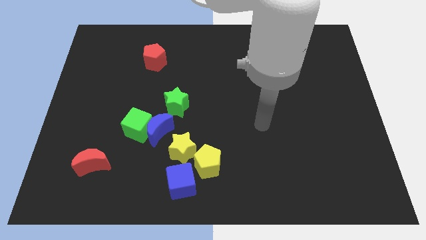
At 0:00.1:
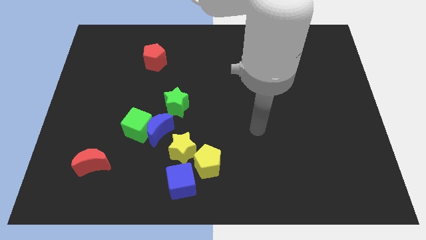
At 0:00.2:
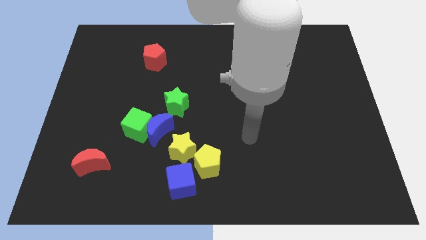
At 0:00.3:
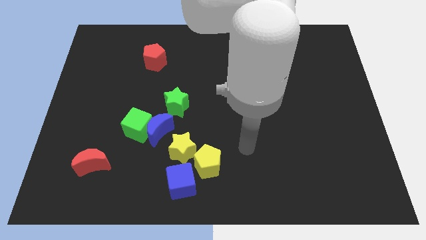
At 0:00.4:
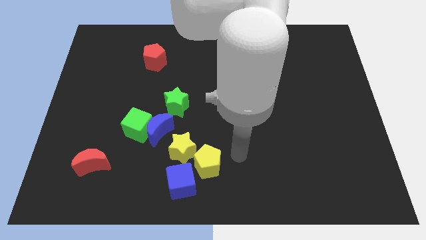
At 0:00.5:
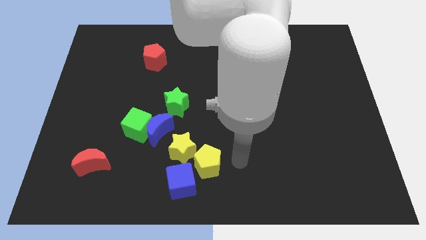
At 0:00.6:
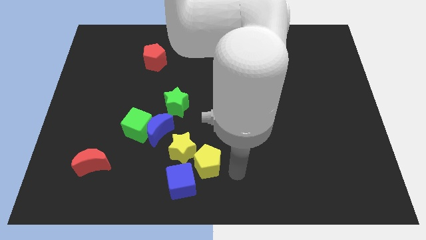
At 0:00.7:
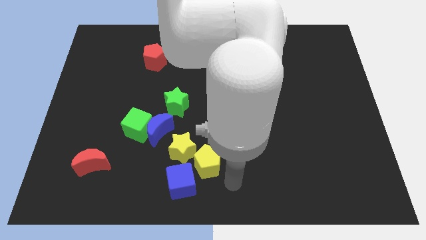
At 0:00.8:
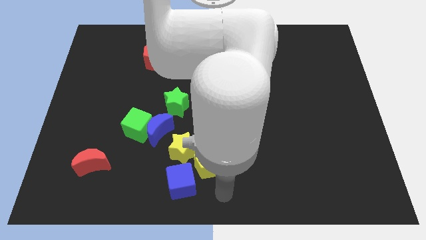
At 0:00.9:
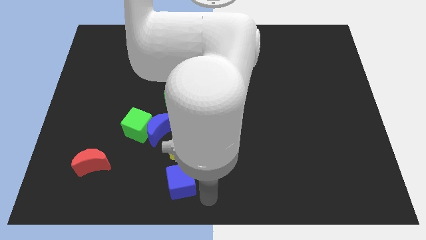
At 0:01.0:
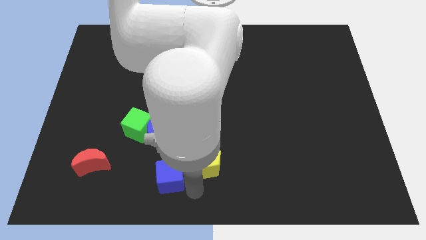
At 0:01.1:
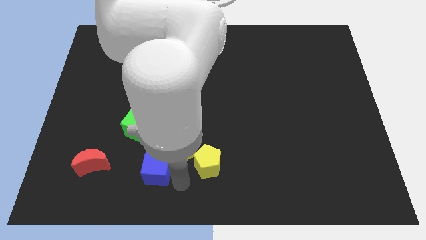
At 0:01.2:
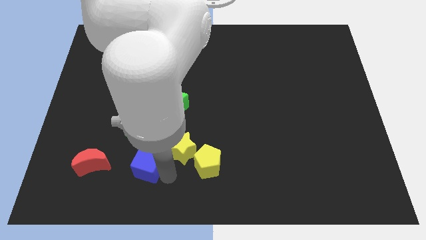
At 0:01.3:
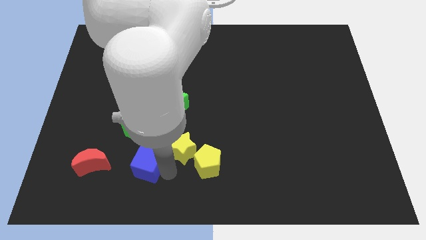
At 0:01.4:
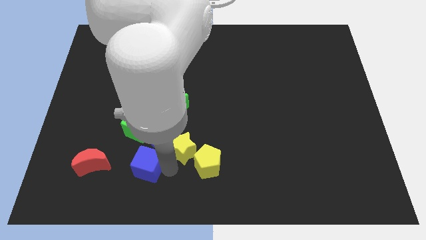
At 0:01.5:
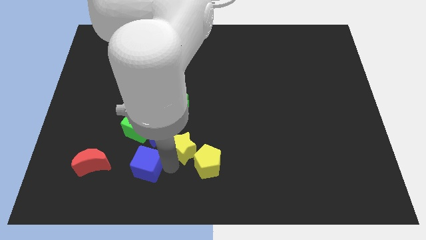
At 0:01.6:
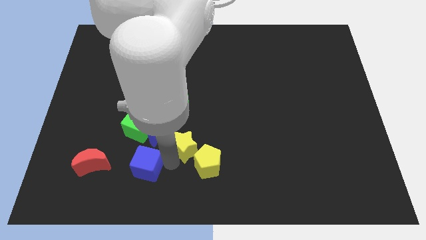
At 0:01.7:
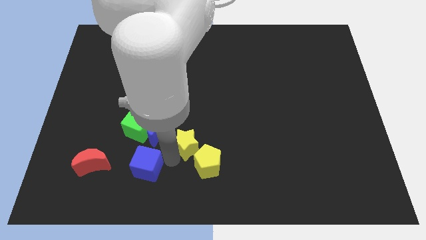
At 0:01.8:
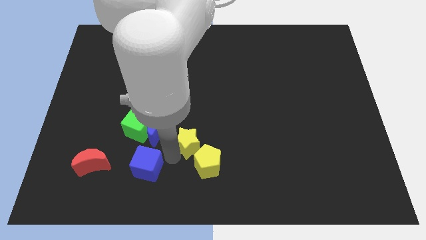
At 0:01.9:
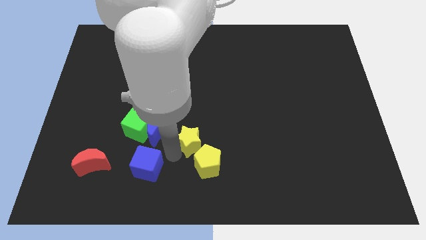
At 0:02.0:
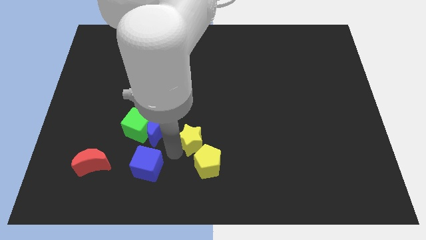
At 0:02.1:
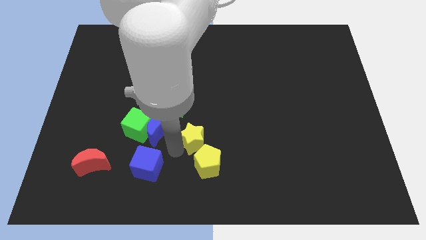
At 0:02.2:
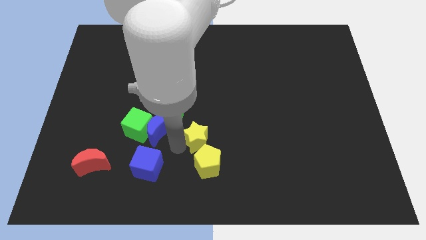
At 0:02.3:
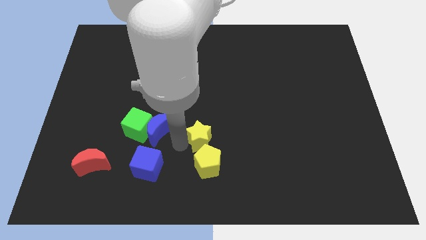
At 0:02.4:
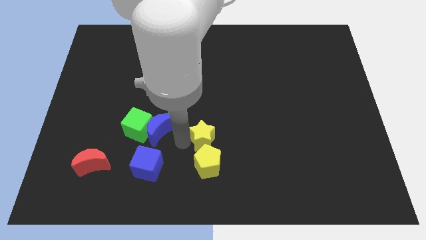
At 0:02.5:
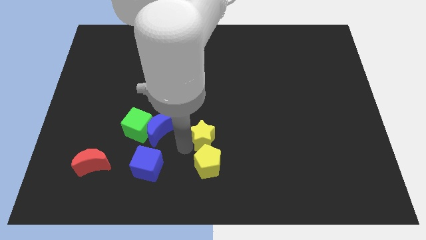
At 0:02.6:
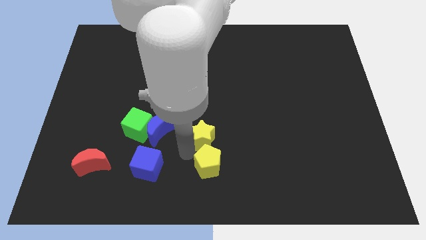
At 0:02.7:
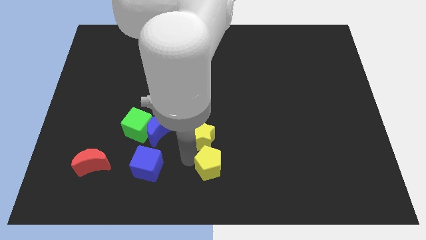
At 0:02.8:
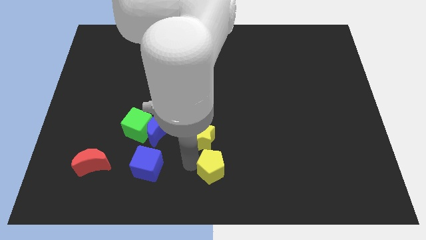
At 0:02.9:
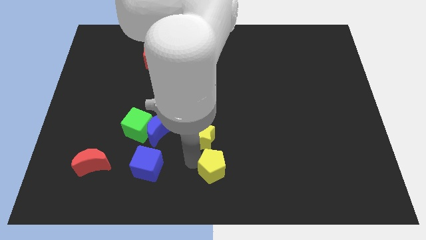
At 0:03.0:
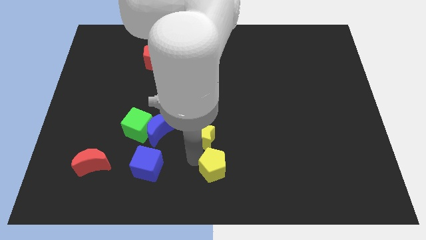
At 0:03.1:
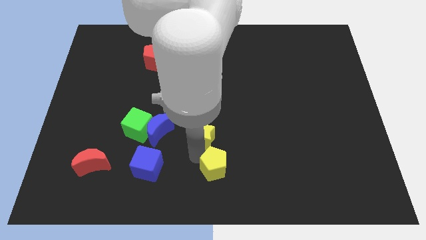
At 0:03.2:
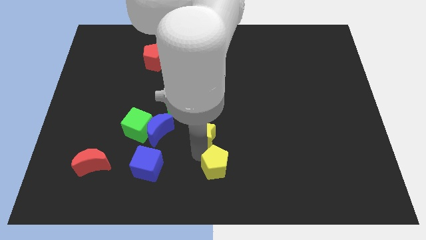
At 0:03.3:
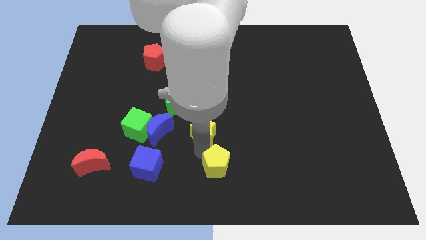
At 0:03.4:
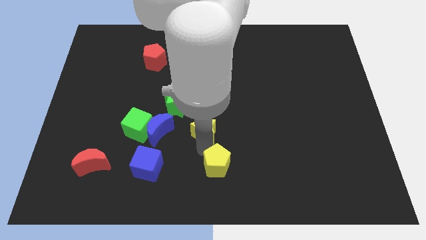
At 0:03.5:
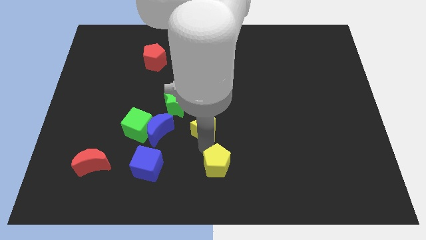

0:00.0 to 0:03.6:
slide the yellow star up and to the right diagonally a little

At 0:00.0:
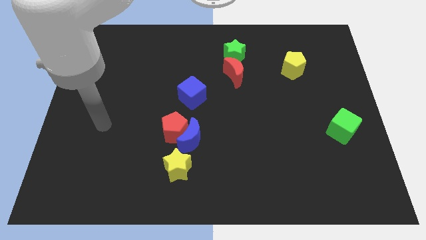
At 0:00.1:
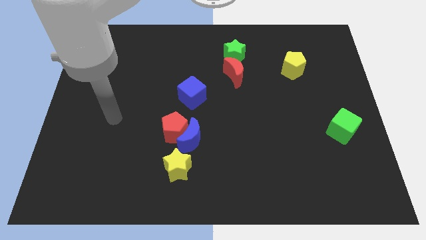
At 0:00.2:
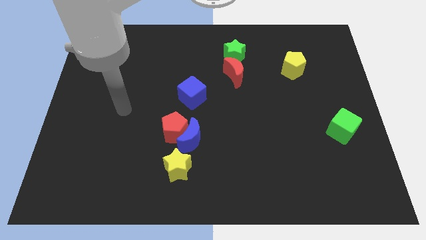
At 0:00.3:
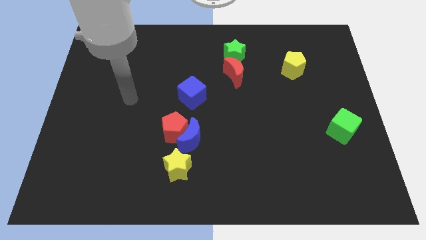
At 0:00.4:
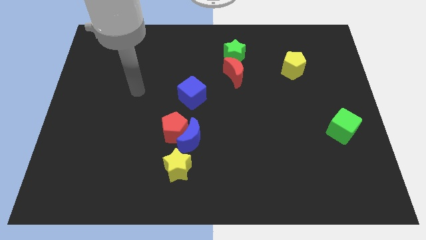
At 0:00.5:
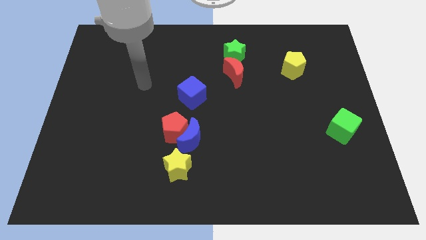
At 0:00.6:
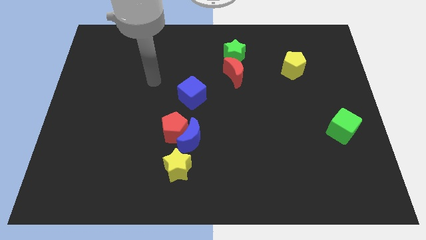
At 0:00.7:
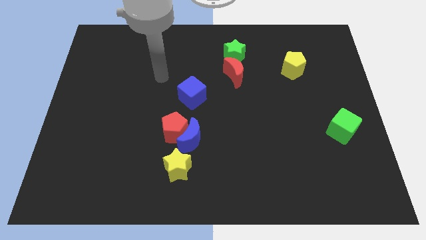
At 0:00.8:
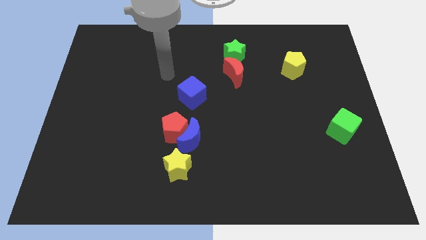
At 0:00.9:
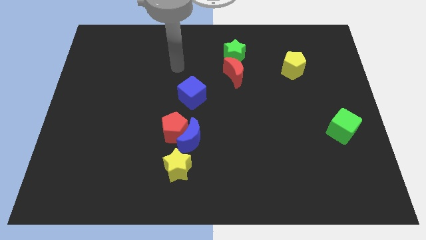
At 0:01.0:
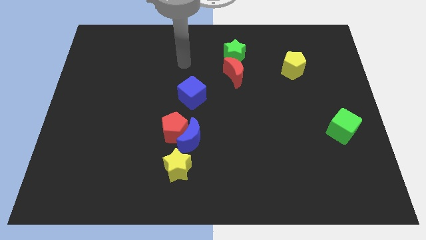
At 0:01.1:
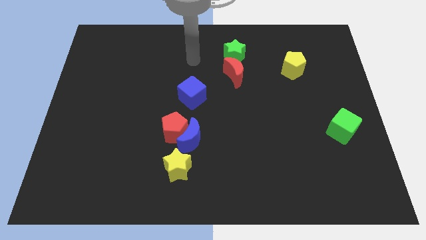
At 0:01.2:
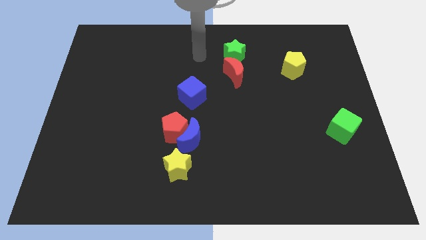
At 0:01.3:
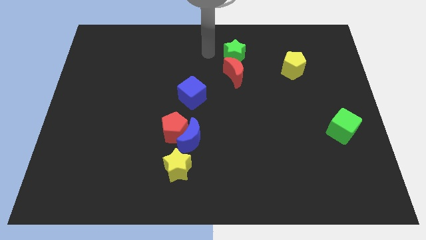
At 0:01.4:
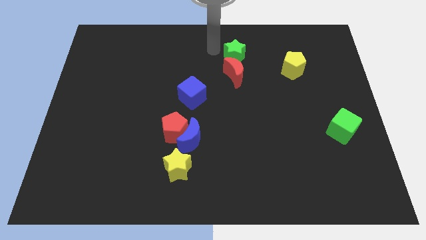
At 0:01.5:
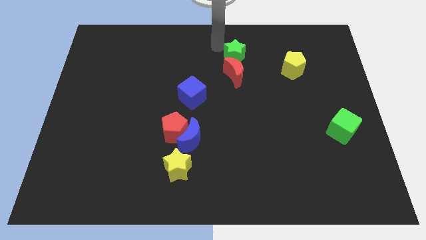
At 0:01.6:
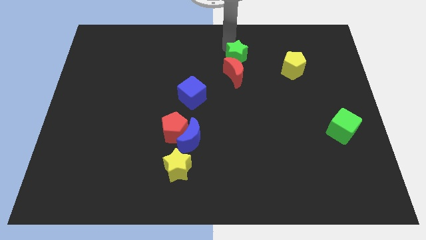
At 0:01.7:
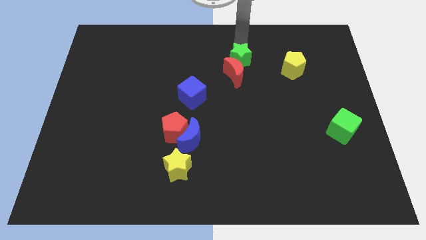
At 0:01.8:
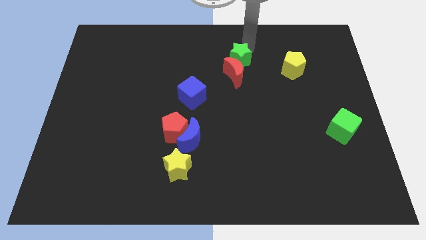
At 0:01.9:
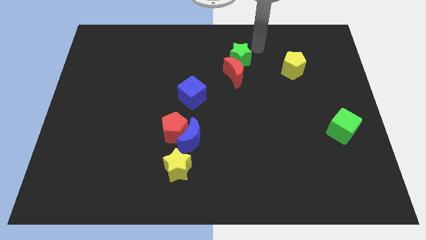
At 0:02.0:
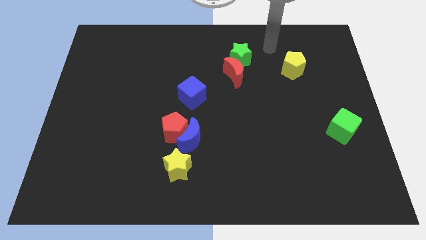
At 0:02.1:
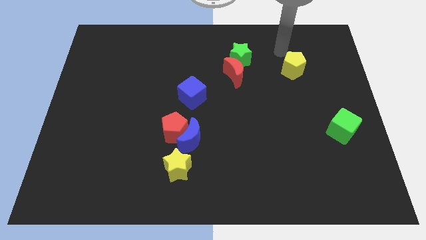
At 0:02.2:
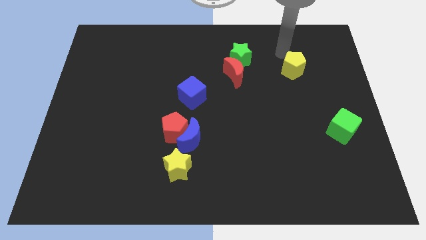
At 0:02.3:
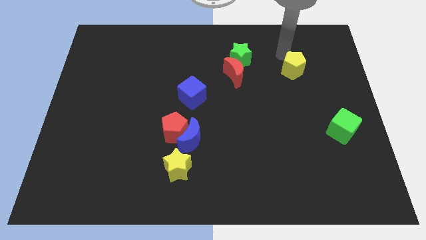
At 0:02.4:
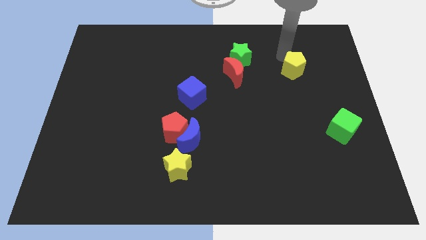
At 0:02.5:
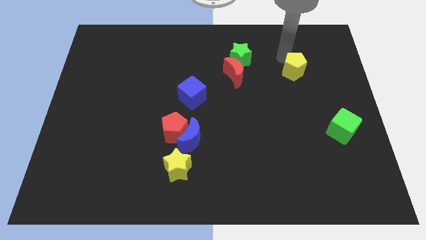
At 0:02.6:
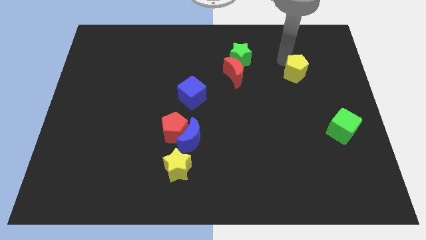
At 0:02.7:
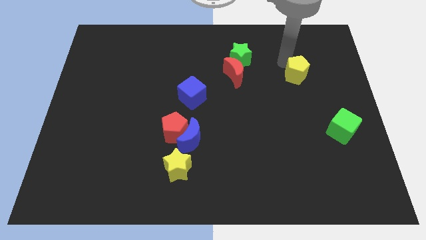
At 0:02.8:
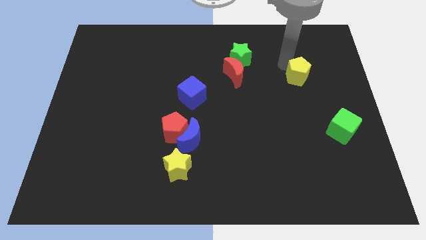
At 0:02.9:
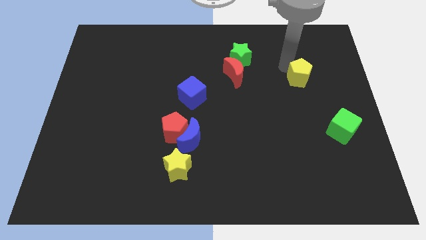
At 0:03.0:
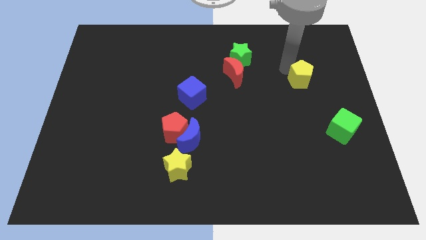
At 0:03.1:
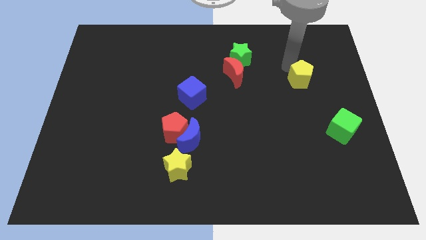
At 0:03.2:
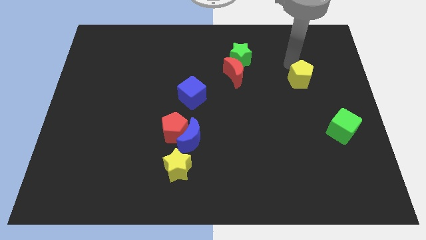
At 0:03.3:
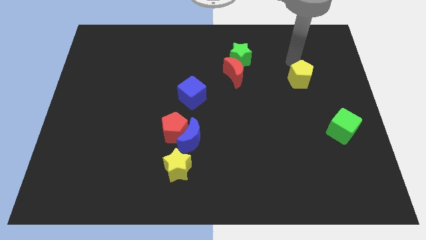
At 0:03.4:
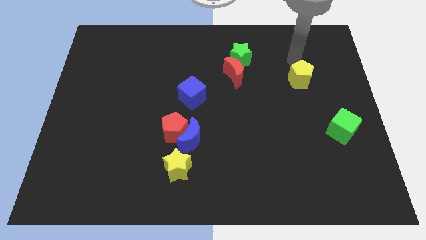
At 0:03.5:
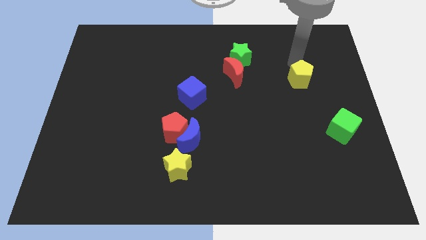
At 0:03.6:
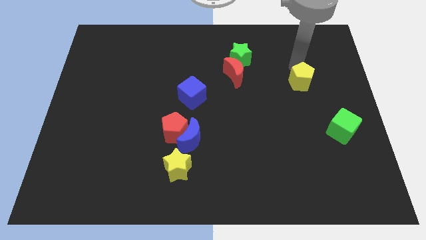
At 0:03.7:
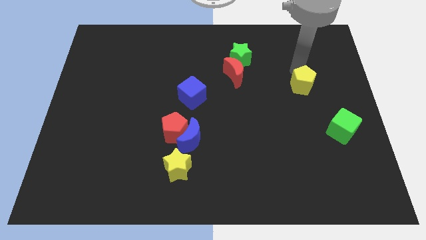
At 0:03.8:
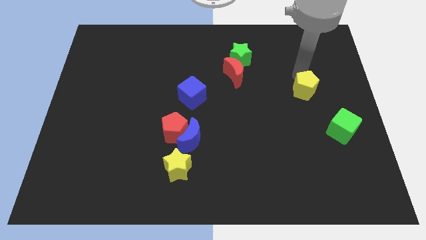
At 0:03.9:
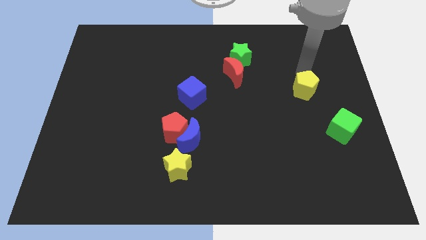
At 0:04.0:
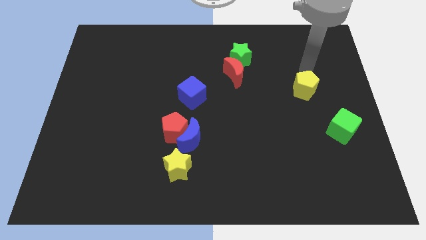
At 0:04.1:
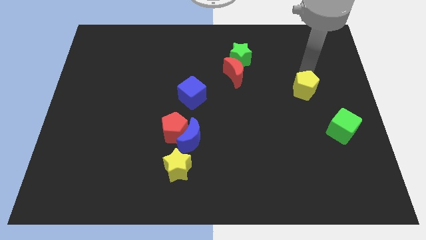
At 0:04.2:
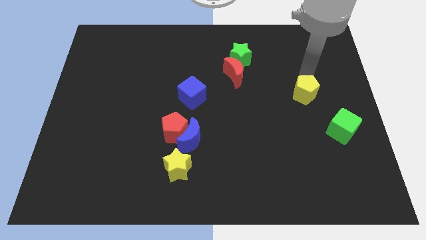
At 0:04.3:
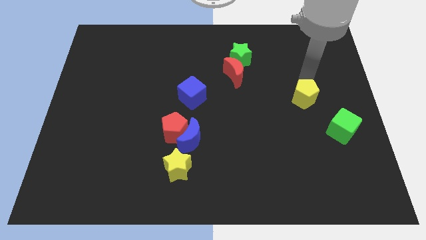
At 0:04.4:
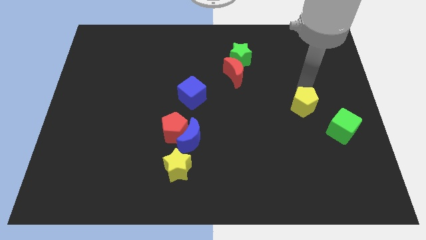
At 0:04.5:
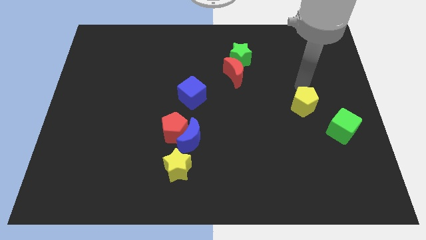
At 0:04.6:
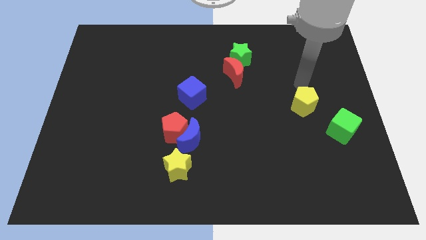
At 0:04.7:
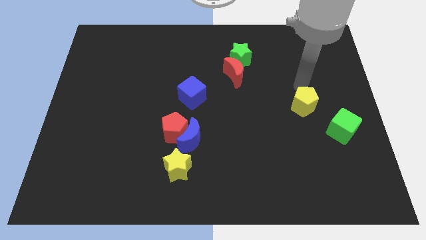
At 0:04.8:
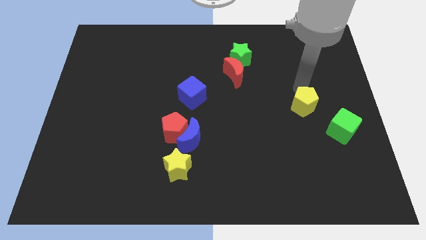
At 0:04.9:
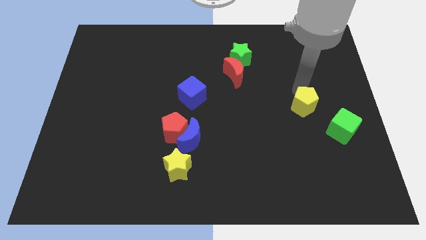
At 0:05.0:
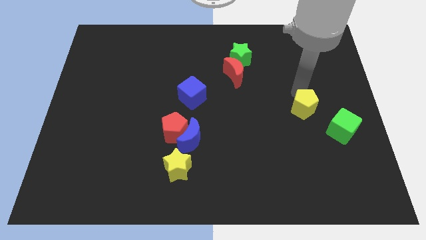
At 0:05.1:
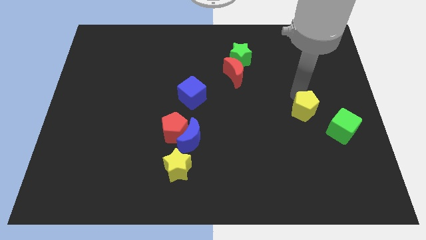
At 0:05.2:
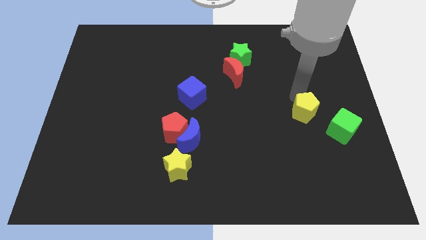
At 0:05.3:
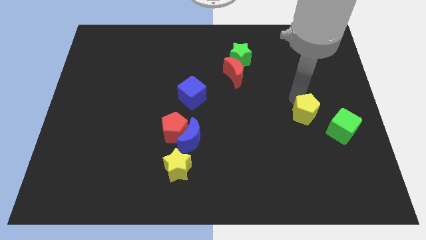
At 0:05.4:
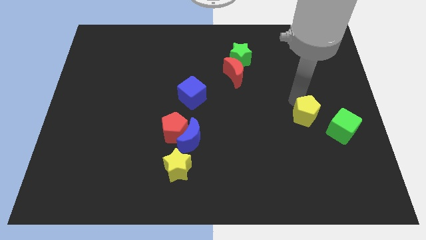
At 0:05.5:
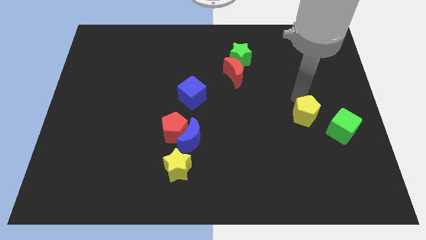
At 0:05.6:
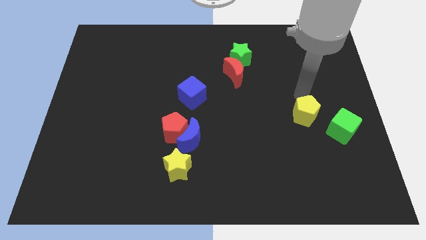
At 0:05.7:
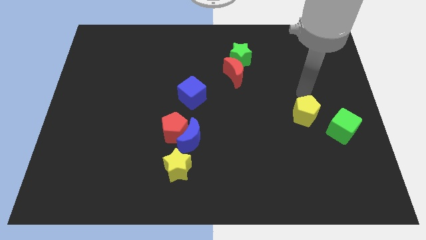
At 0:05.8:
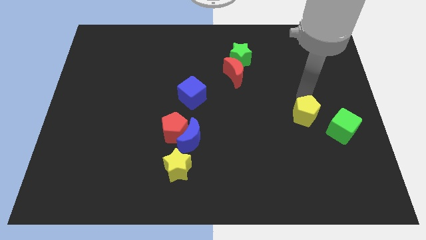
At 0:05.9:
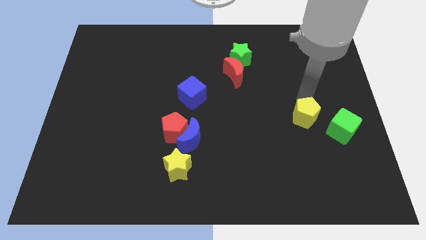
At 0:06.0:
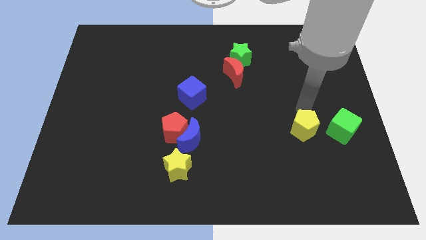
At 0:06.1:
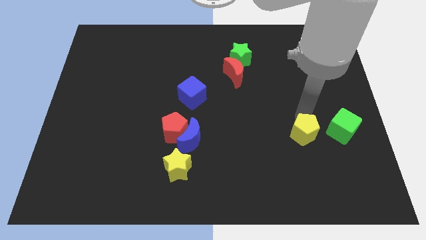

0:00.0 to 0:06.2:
move the yellow pentagon downwards
